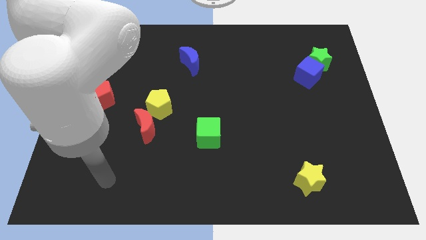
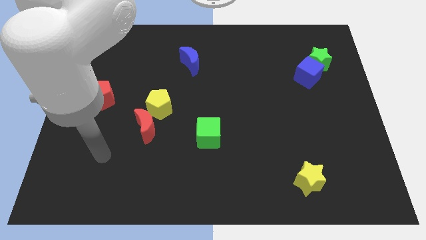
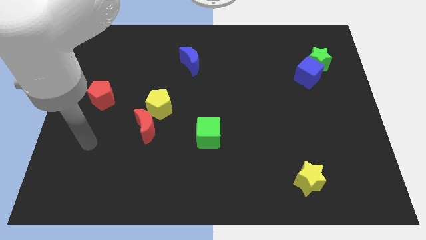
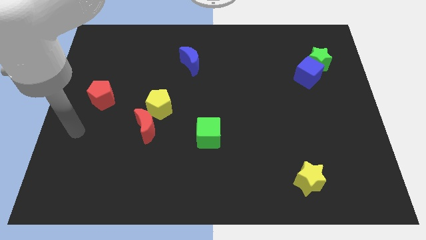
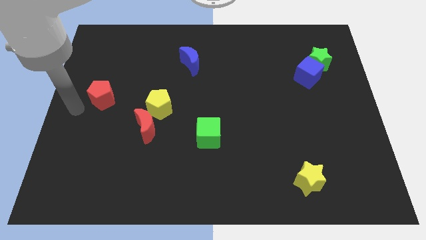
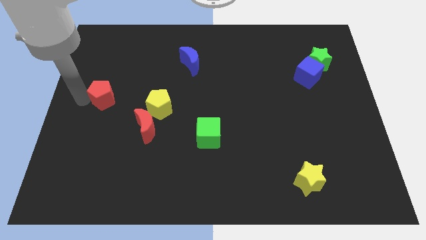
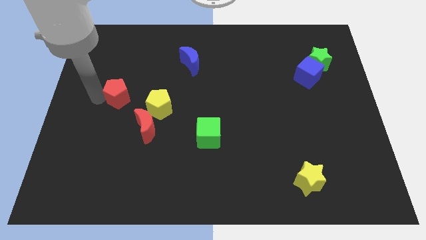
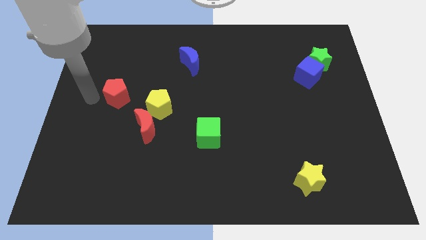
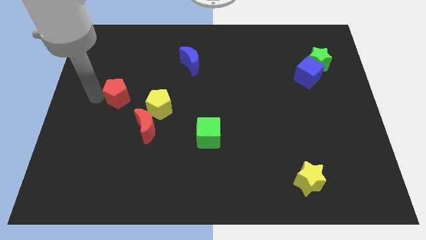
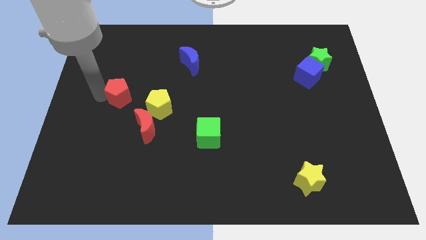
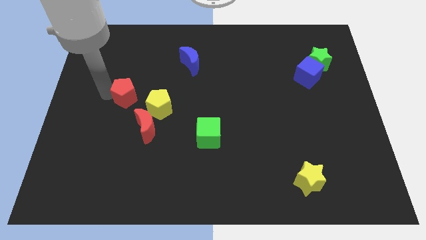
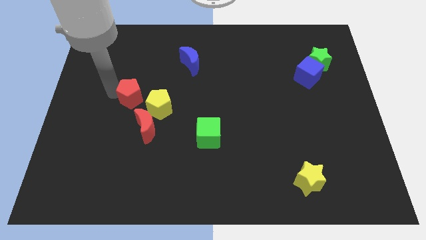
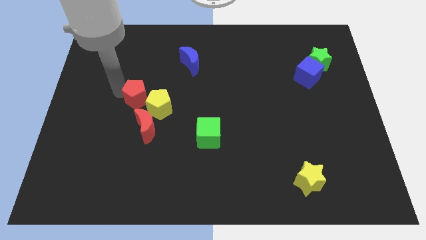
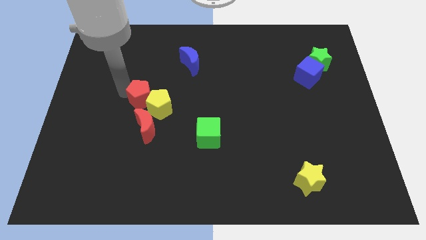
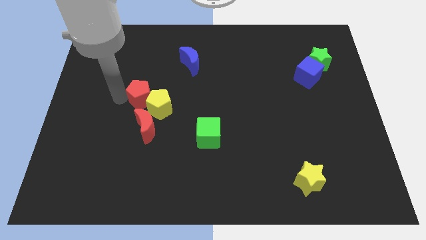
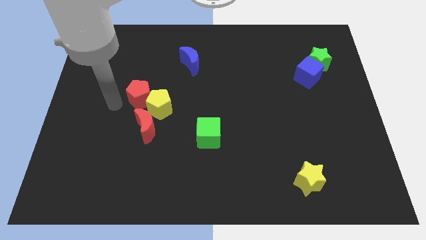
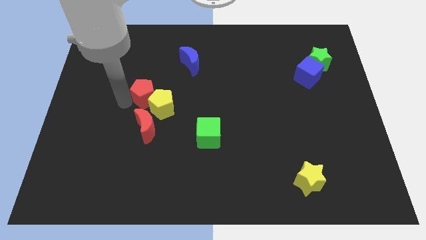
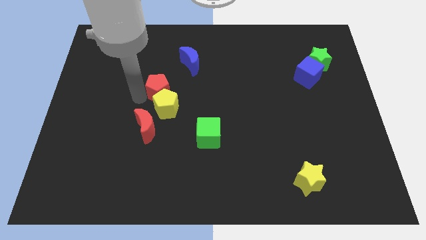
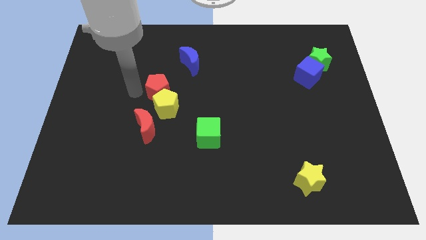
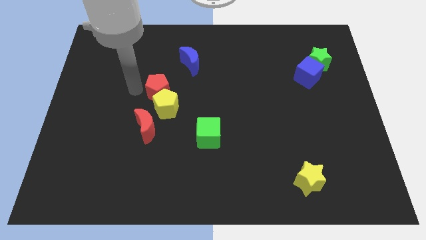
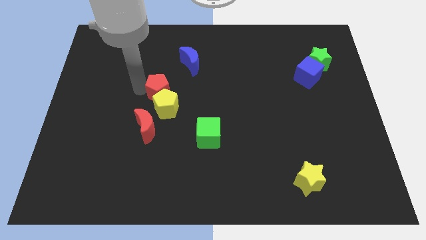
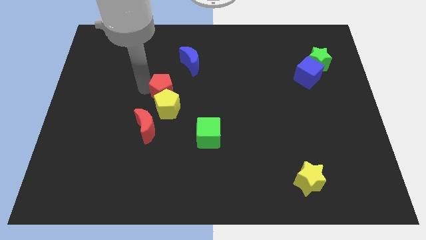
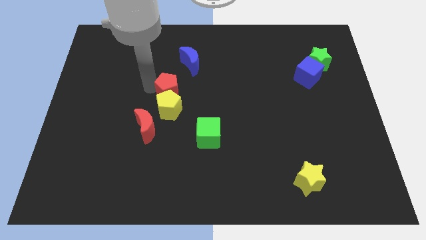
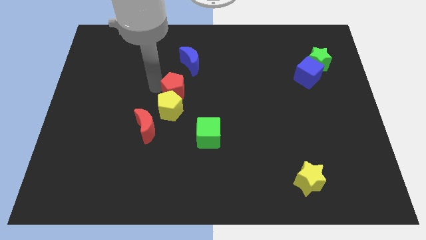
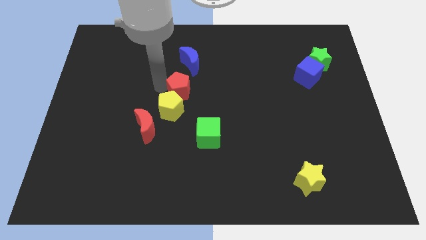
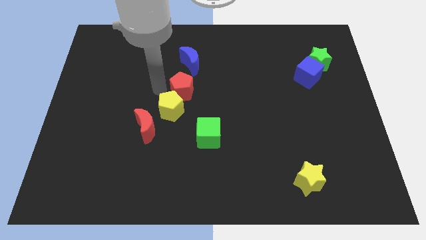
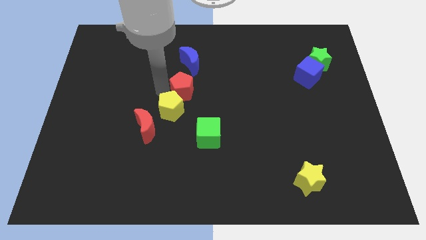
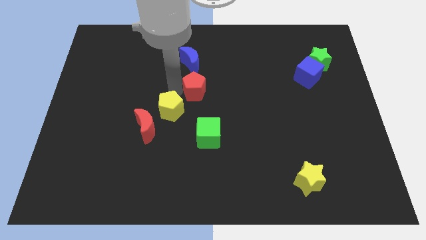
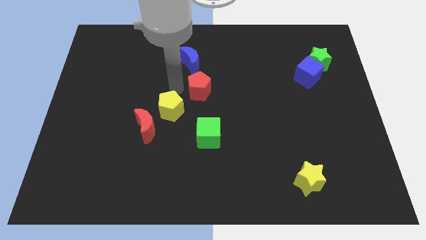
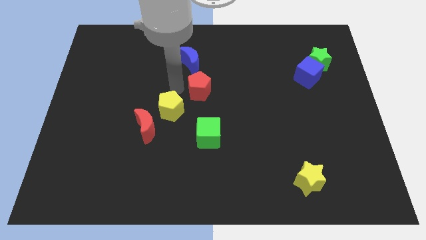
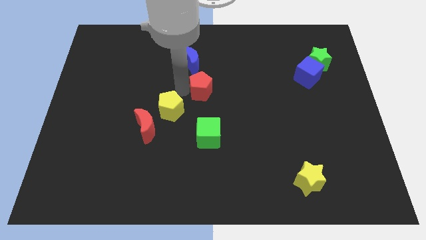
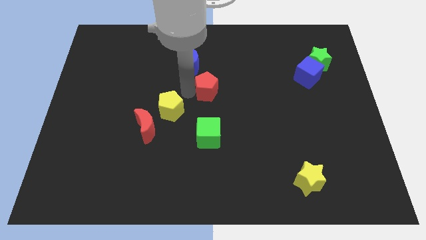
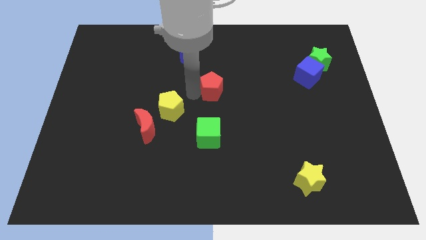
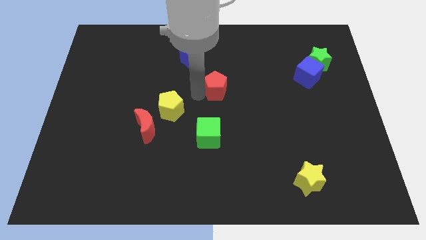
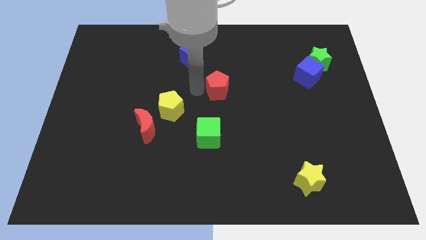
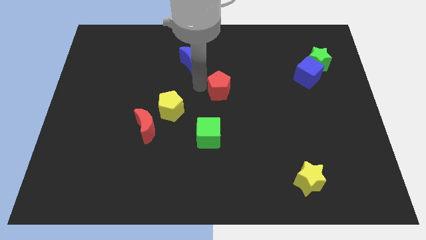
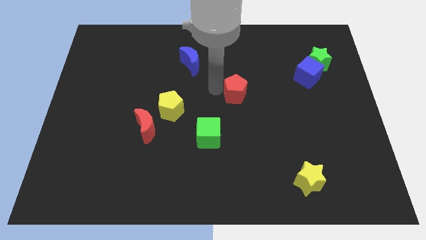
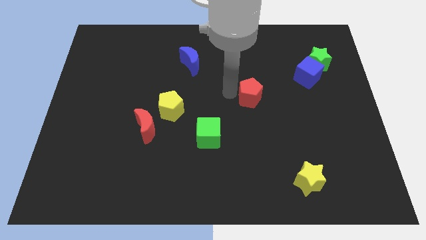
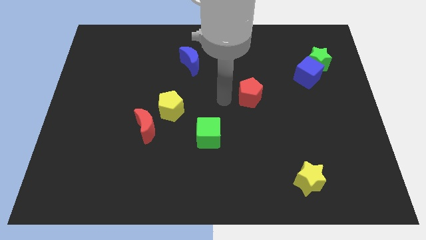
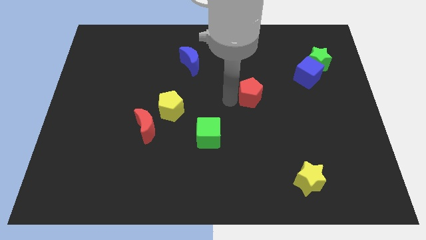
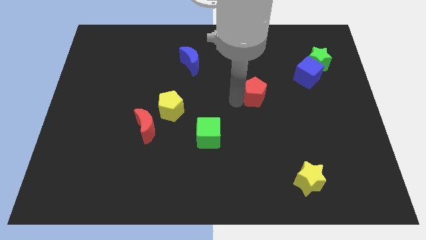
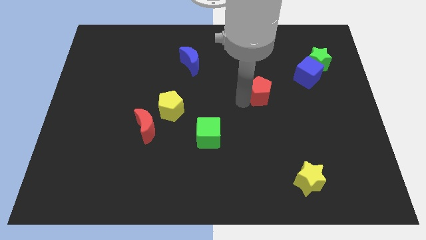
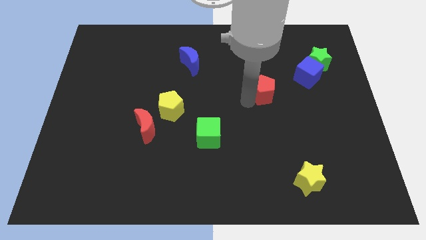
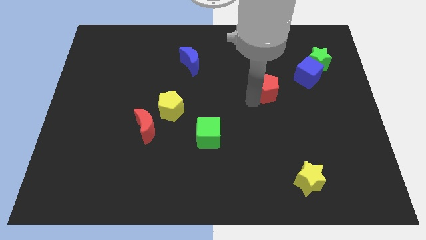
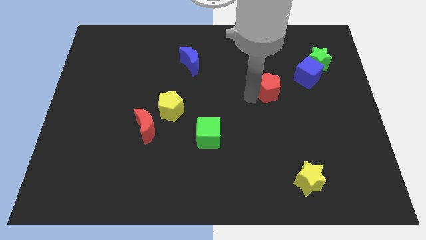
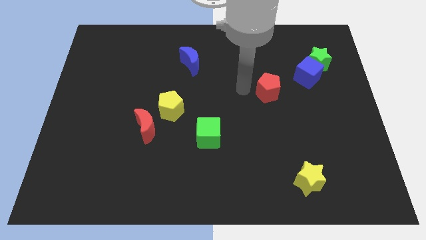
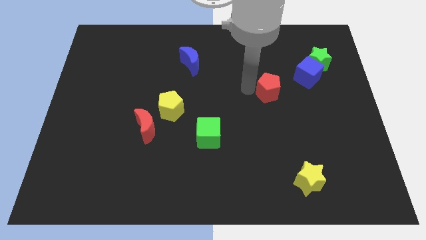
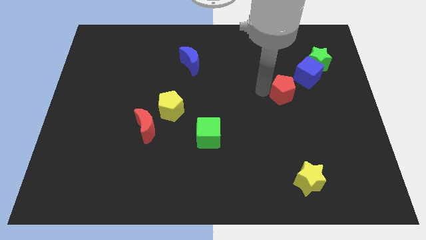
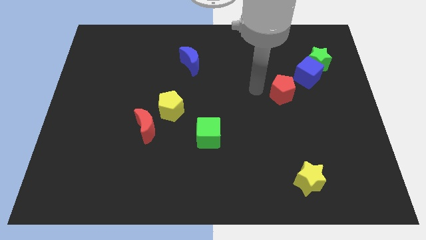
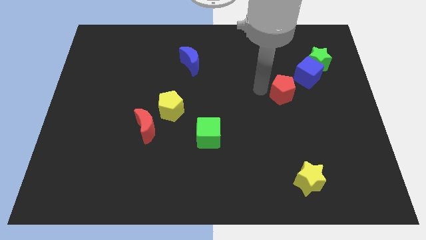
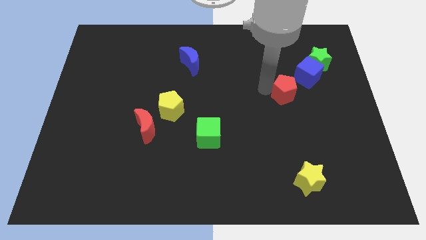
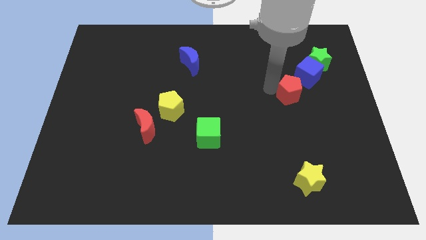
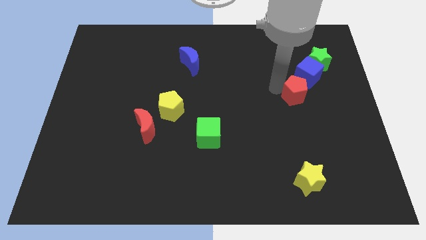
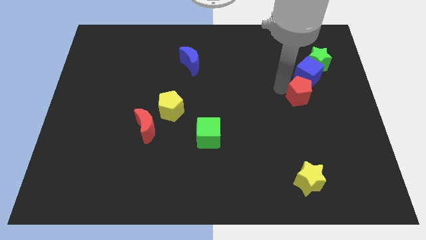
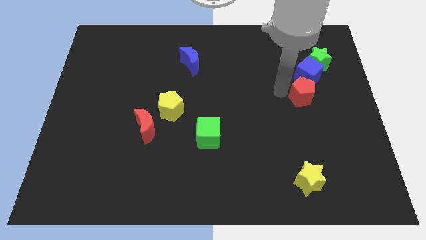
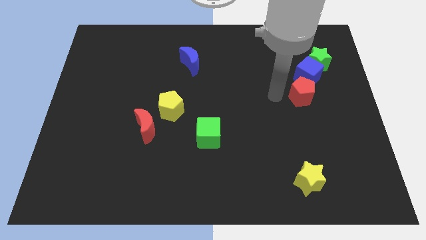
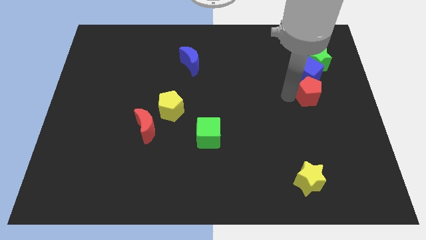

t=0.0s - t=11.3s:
slide the red pentagon to the bottom side of the green star

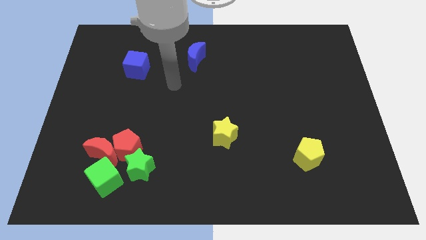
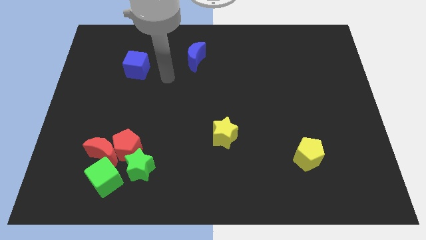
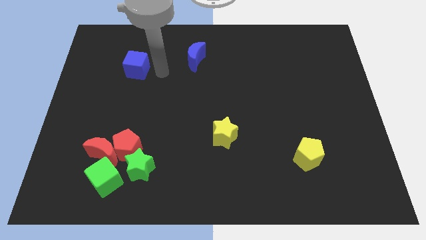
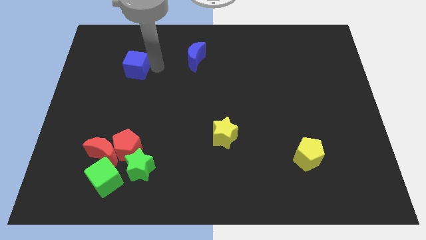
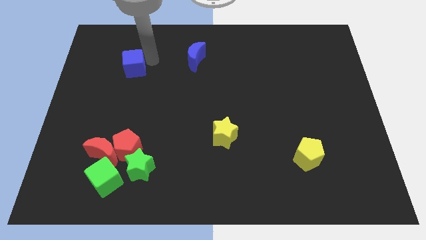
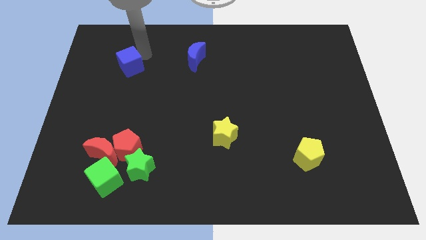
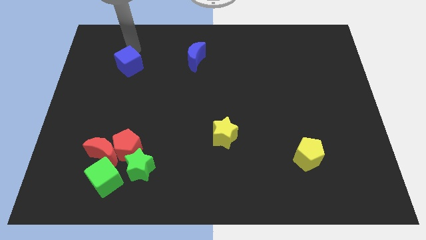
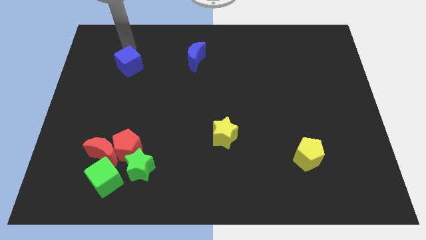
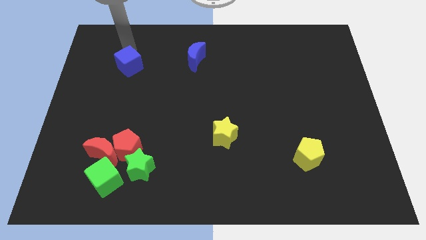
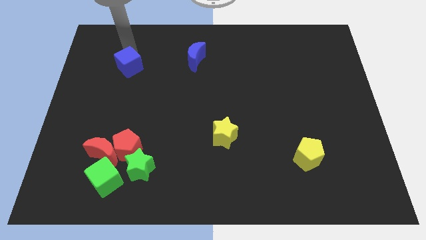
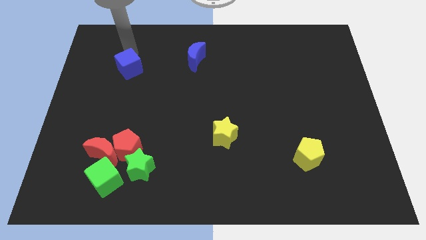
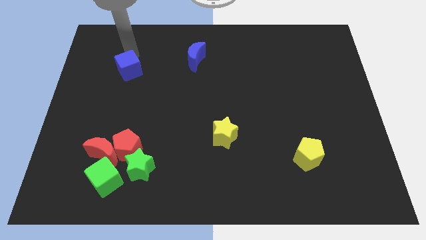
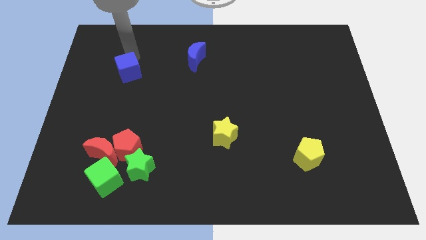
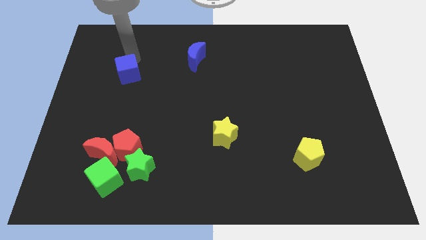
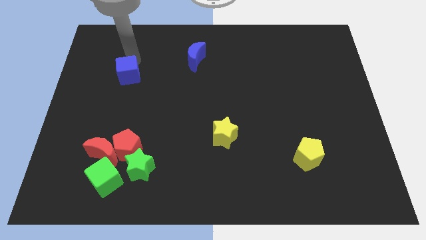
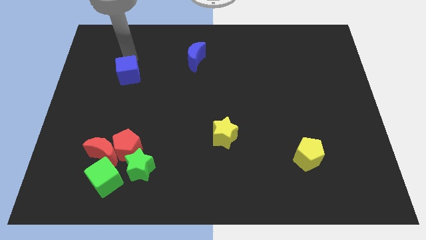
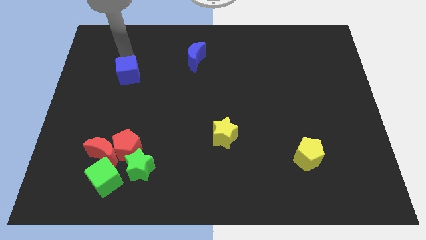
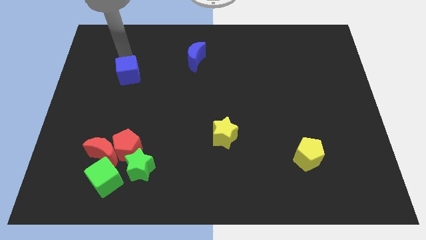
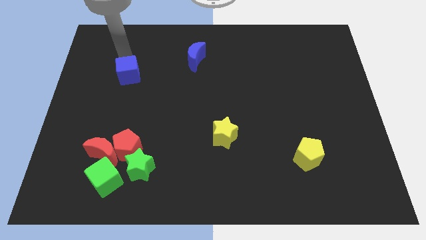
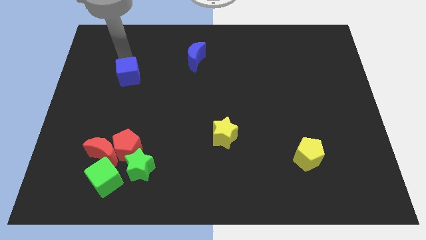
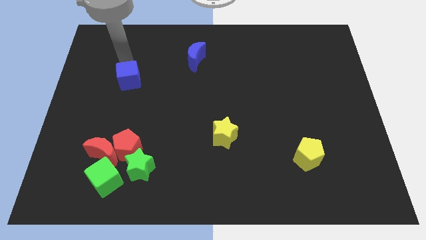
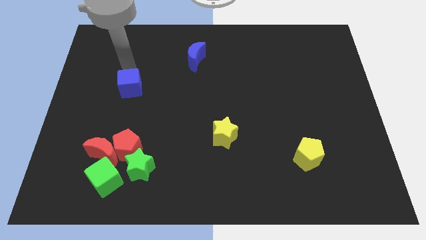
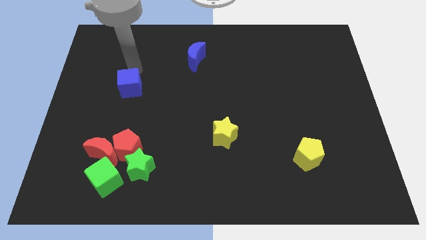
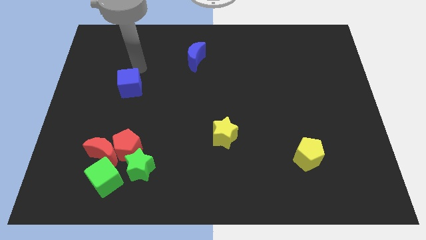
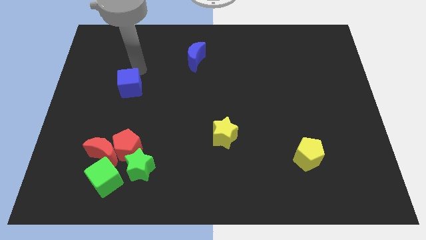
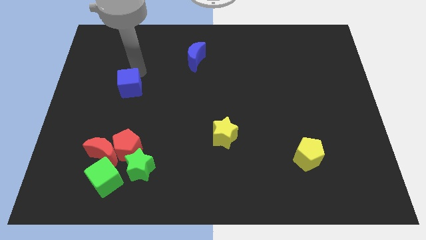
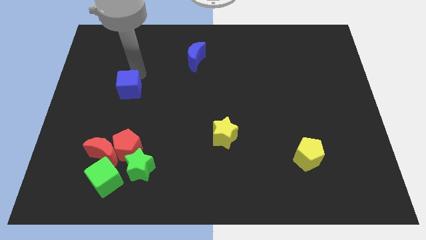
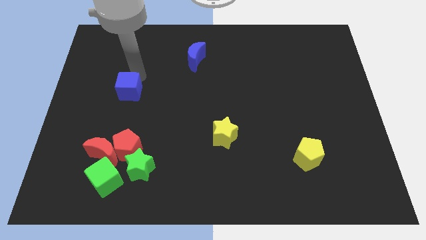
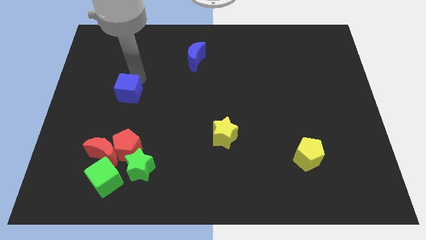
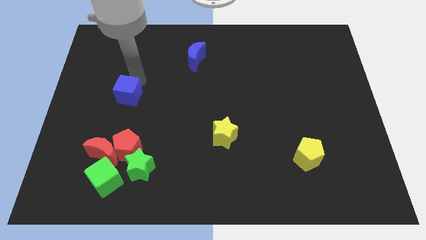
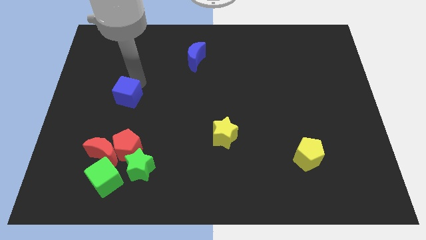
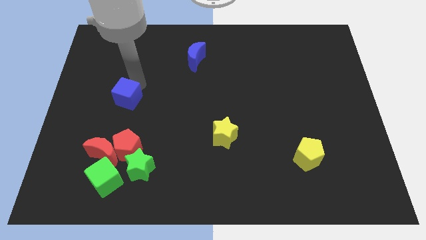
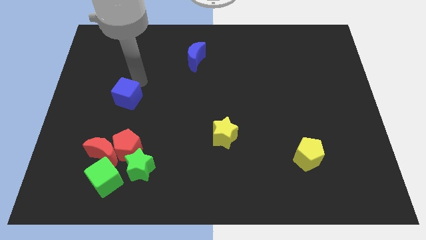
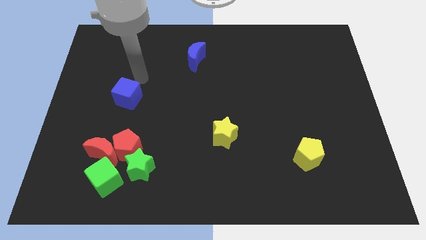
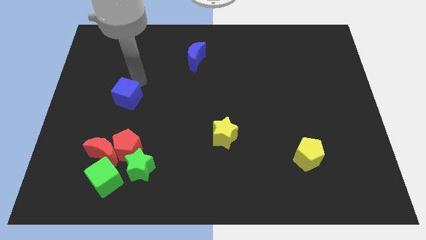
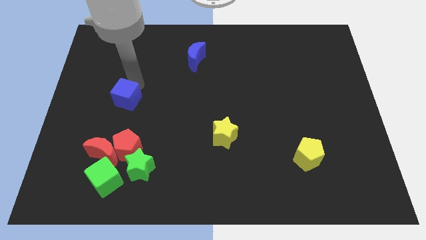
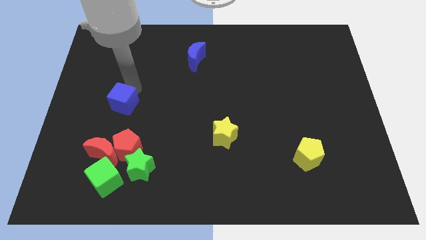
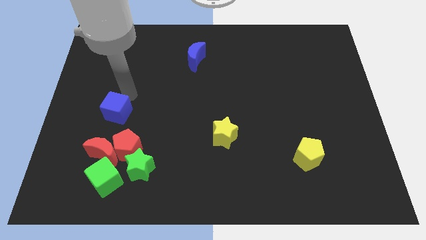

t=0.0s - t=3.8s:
put the blue cube diagonally up and to the left of the red pentagon
